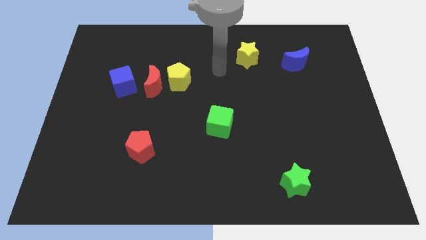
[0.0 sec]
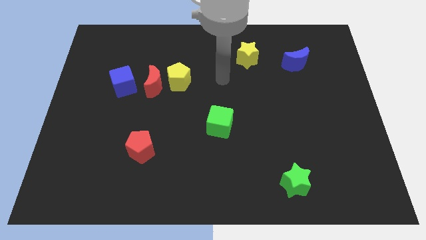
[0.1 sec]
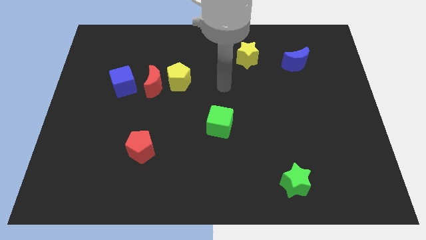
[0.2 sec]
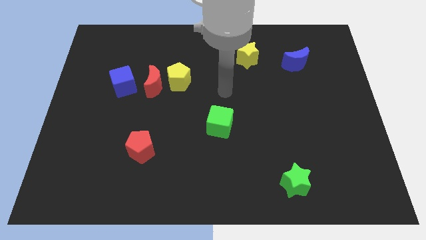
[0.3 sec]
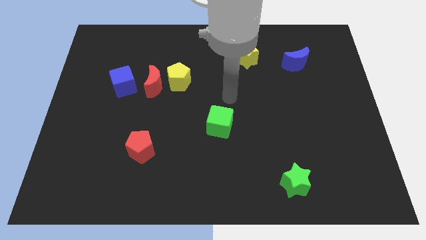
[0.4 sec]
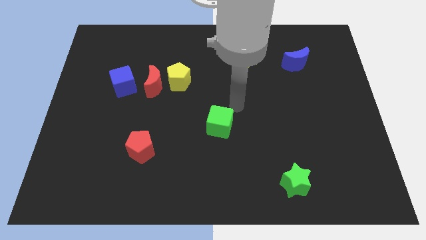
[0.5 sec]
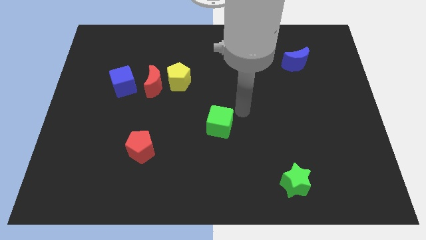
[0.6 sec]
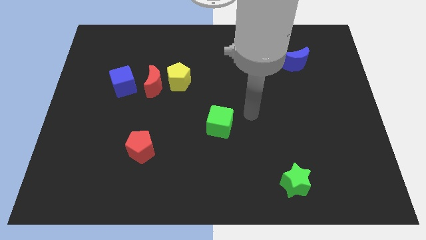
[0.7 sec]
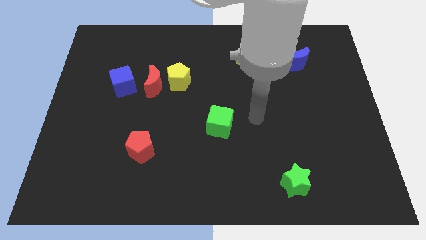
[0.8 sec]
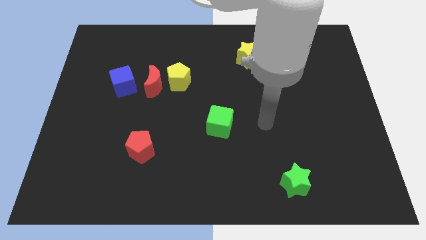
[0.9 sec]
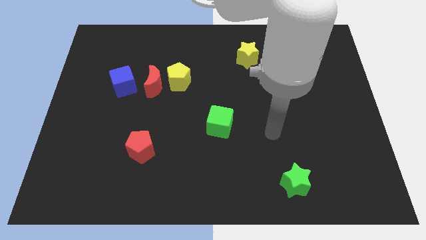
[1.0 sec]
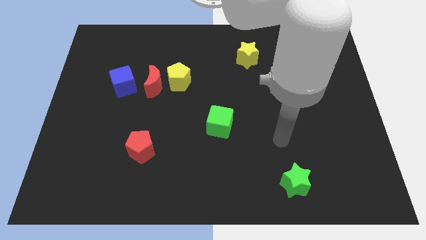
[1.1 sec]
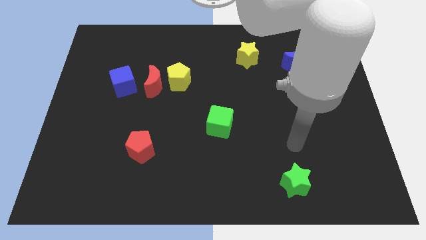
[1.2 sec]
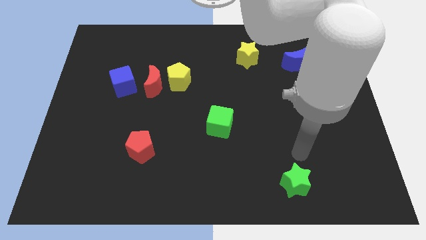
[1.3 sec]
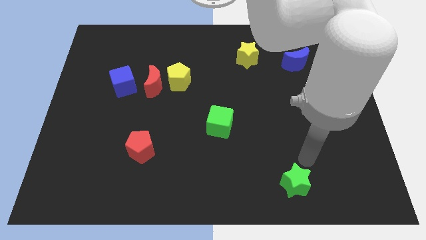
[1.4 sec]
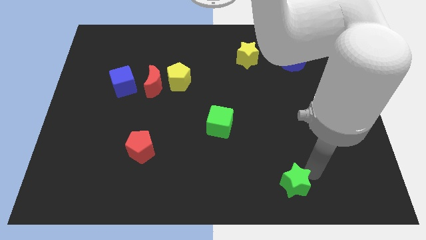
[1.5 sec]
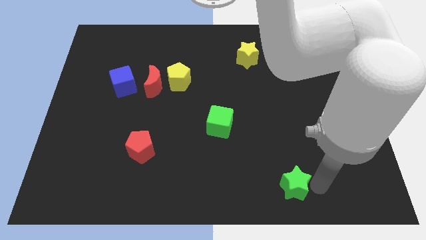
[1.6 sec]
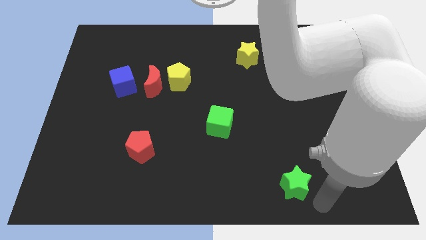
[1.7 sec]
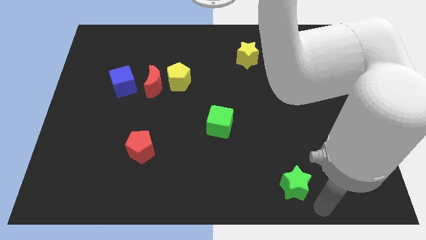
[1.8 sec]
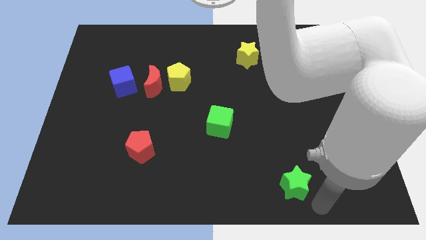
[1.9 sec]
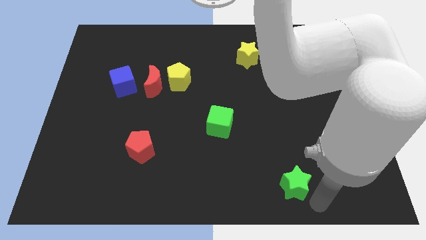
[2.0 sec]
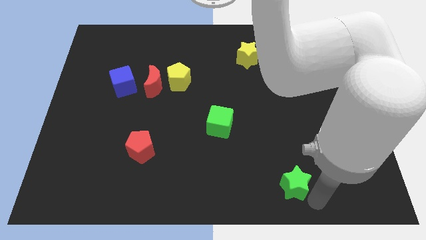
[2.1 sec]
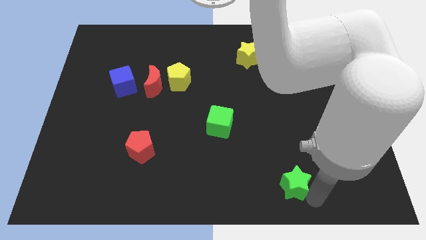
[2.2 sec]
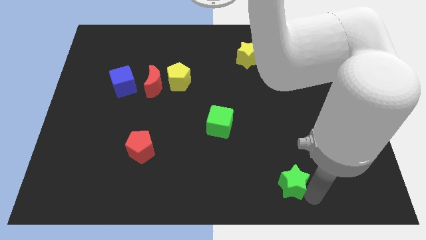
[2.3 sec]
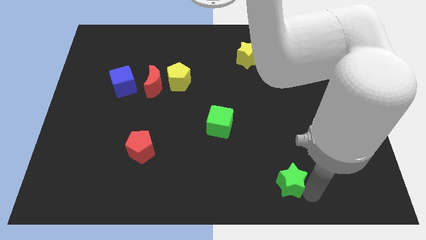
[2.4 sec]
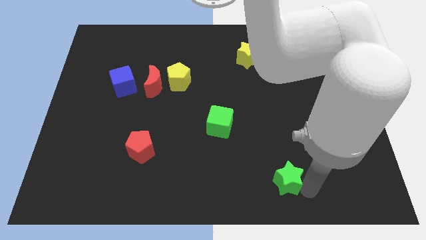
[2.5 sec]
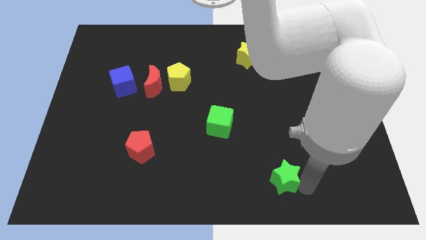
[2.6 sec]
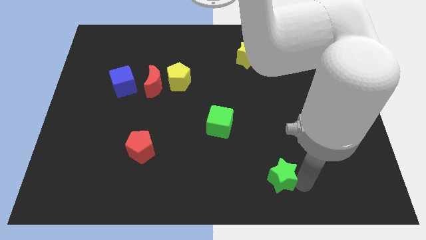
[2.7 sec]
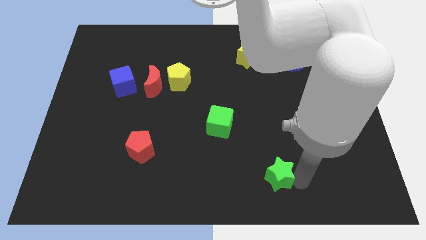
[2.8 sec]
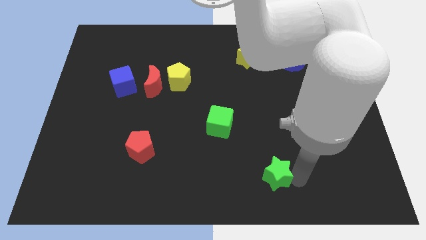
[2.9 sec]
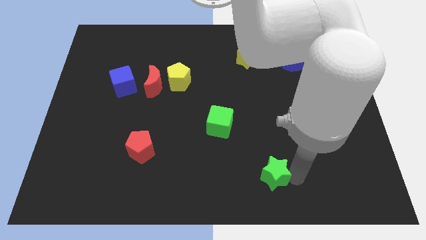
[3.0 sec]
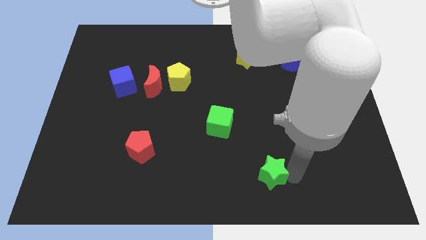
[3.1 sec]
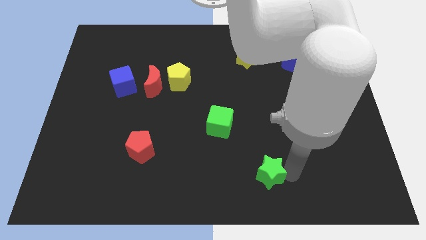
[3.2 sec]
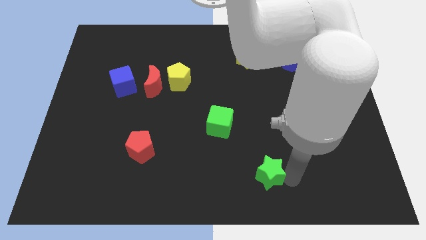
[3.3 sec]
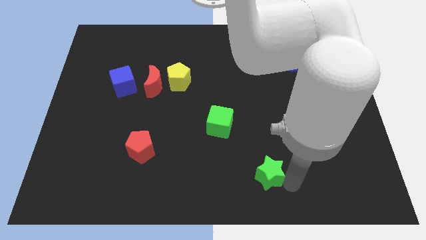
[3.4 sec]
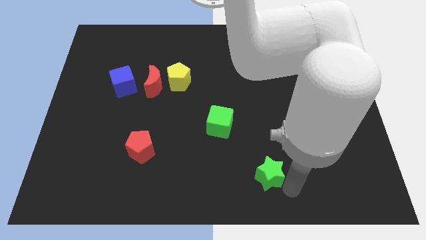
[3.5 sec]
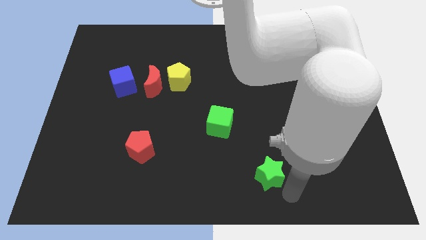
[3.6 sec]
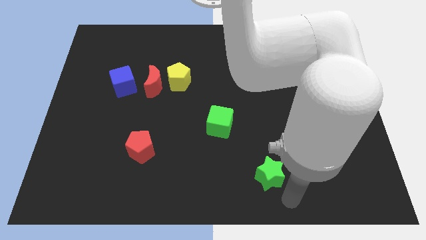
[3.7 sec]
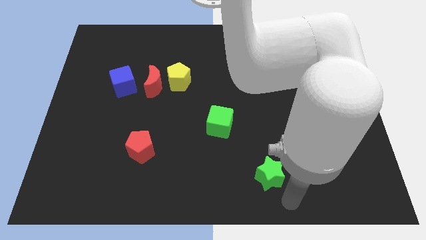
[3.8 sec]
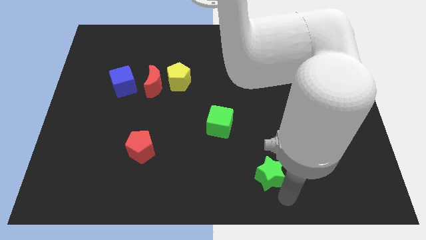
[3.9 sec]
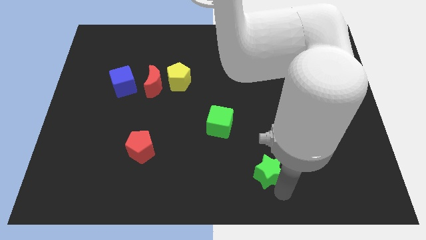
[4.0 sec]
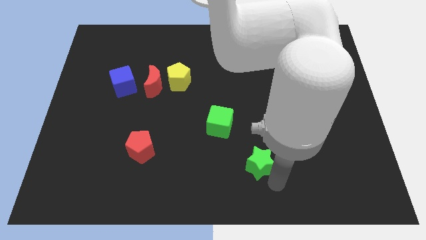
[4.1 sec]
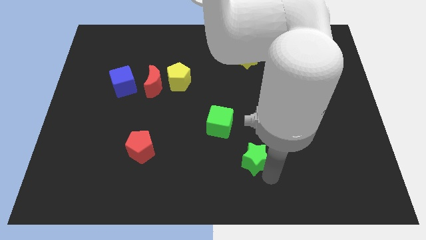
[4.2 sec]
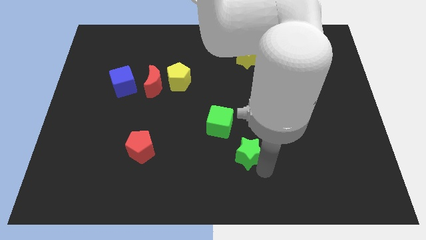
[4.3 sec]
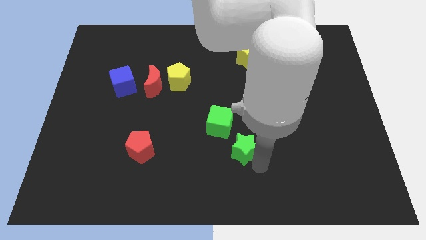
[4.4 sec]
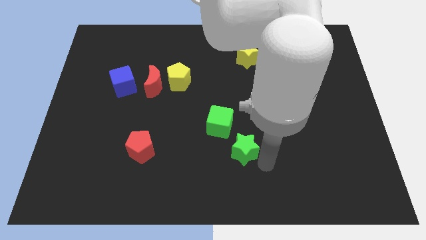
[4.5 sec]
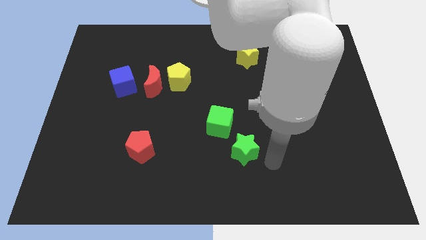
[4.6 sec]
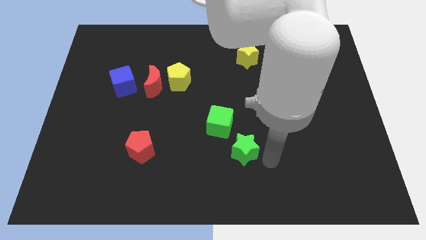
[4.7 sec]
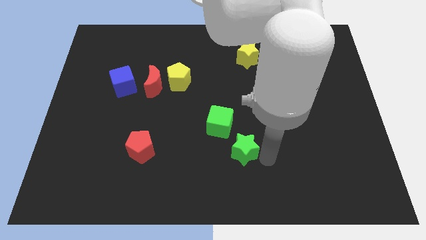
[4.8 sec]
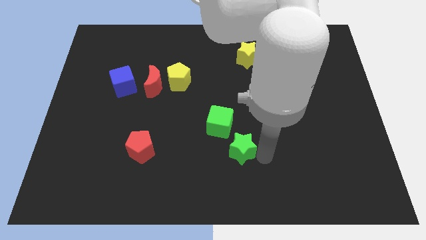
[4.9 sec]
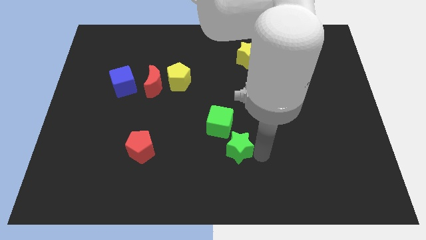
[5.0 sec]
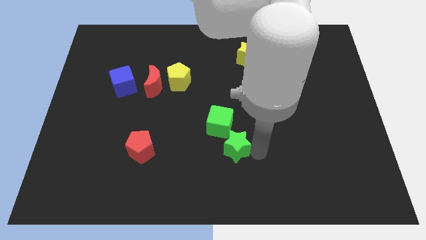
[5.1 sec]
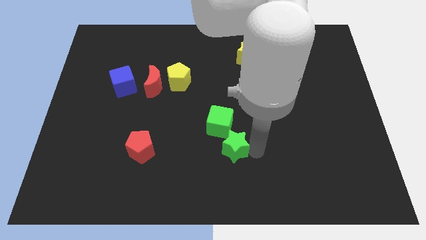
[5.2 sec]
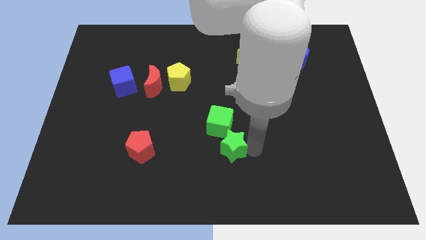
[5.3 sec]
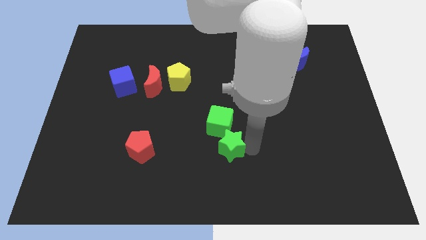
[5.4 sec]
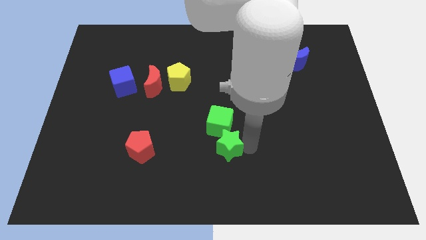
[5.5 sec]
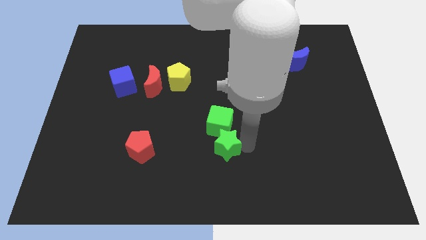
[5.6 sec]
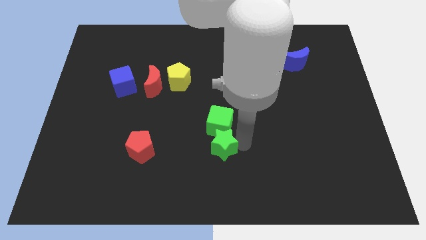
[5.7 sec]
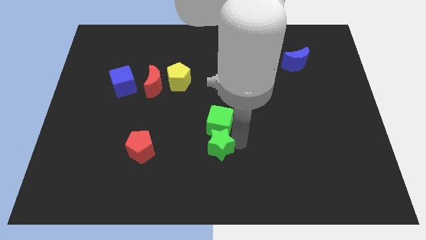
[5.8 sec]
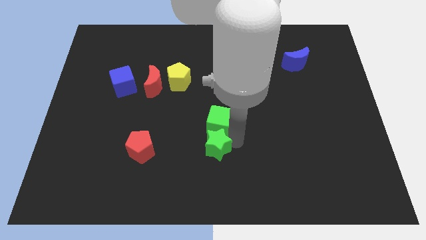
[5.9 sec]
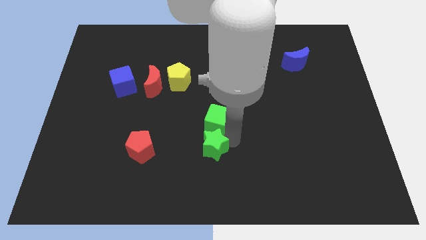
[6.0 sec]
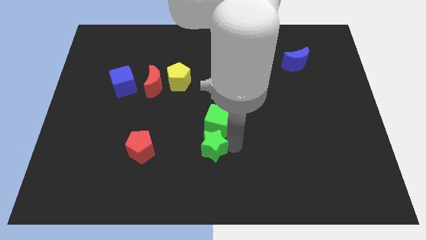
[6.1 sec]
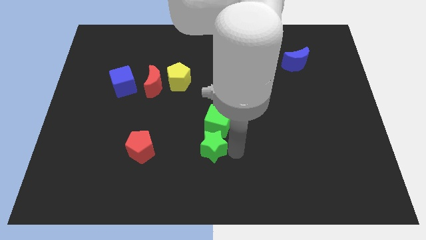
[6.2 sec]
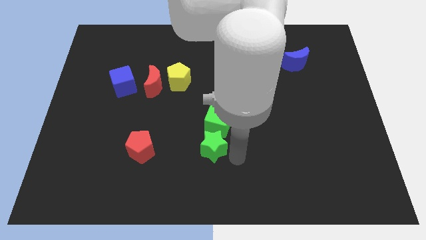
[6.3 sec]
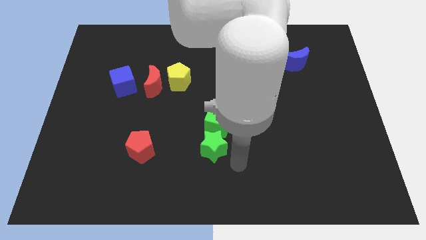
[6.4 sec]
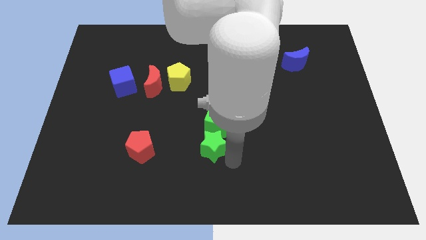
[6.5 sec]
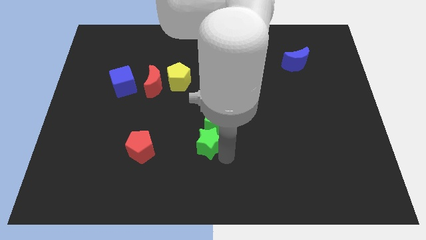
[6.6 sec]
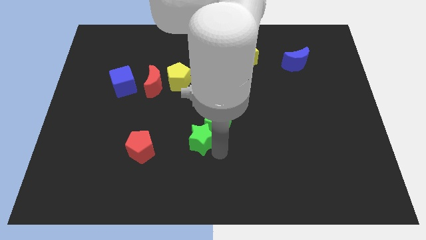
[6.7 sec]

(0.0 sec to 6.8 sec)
move the green star to the left of the green cube

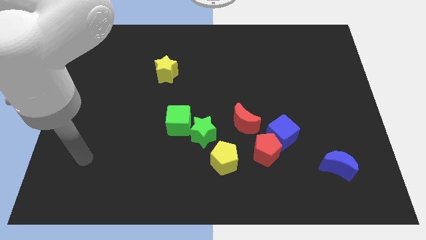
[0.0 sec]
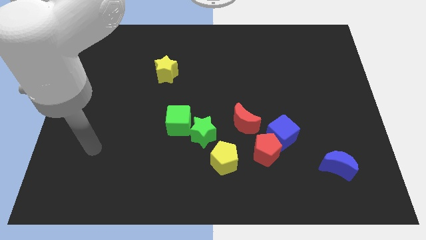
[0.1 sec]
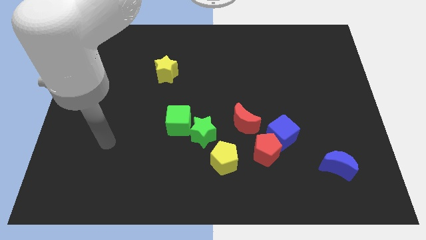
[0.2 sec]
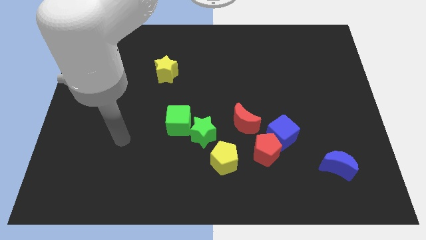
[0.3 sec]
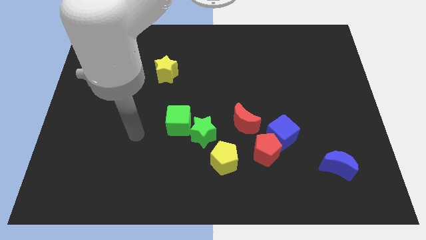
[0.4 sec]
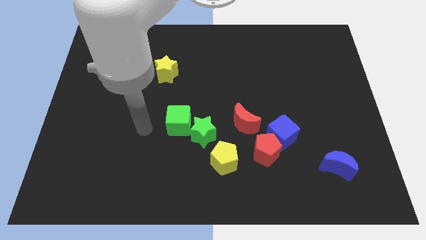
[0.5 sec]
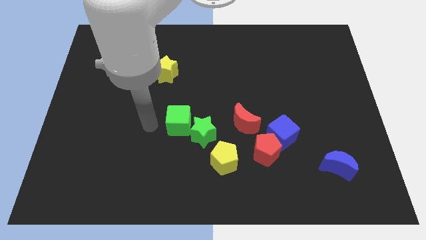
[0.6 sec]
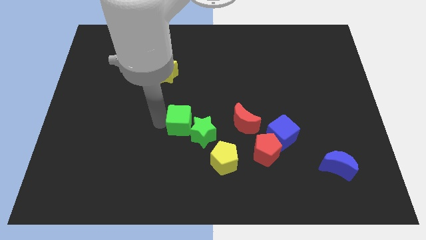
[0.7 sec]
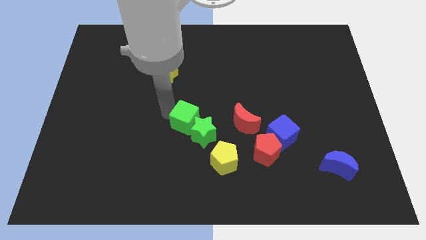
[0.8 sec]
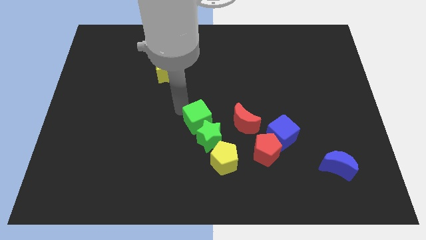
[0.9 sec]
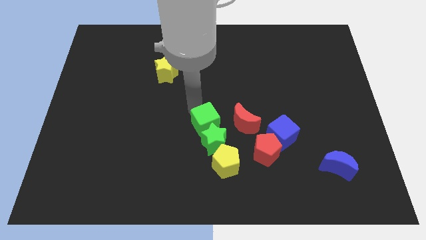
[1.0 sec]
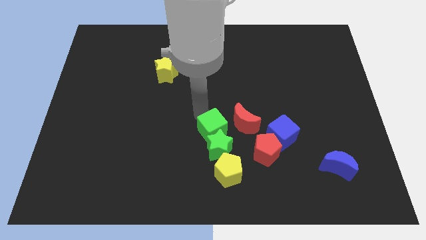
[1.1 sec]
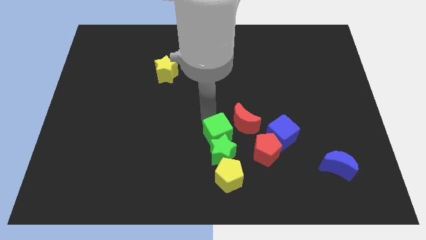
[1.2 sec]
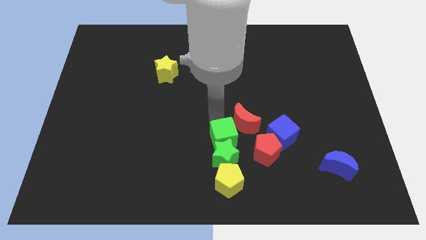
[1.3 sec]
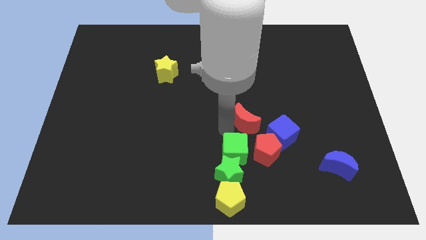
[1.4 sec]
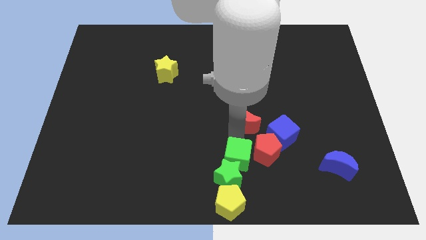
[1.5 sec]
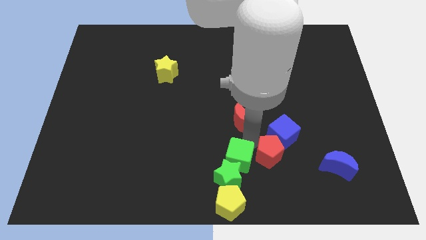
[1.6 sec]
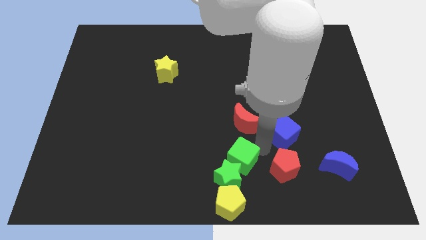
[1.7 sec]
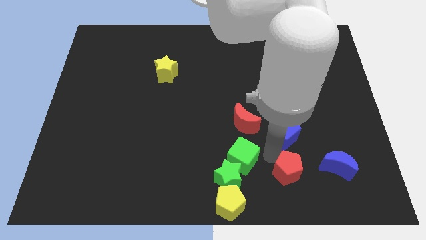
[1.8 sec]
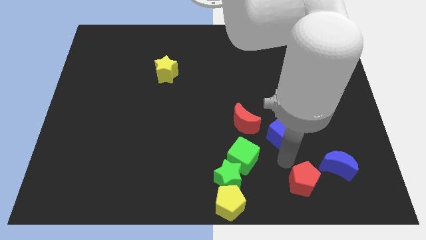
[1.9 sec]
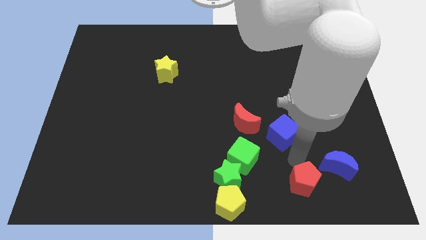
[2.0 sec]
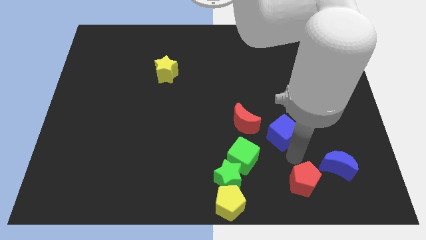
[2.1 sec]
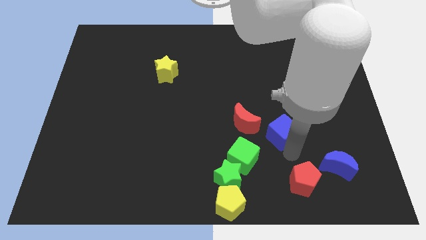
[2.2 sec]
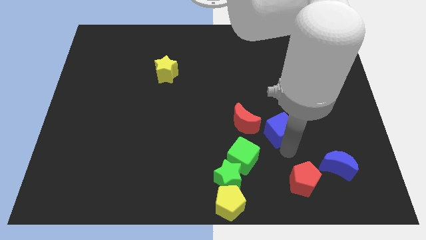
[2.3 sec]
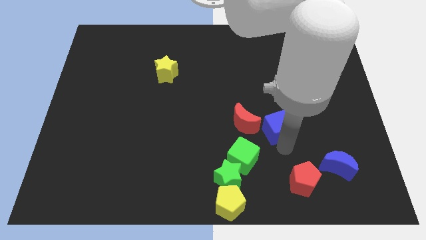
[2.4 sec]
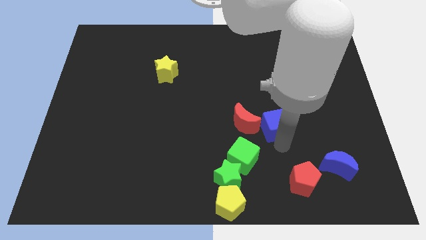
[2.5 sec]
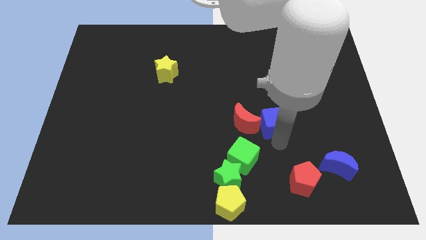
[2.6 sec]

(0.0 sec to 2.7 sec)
put the blue cube to the top right side of the red moon
